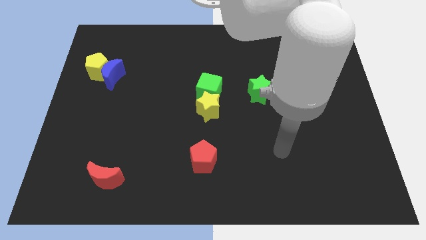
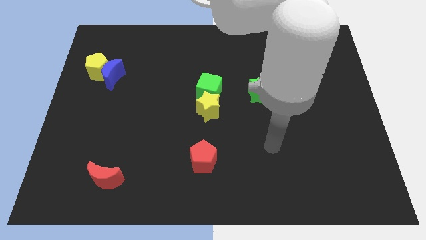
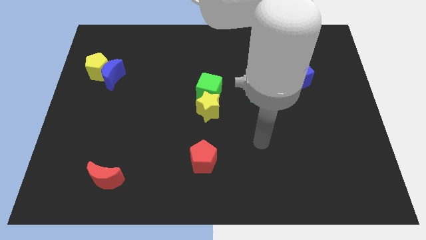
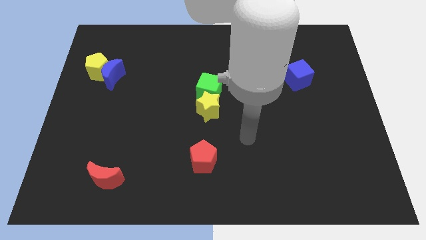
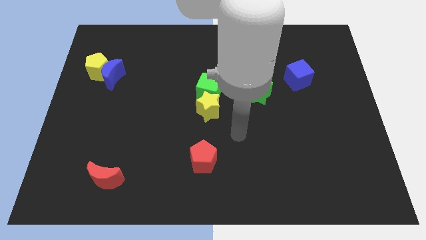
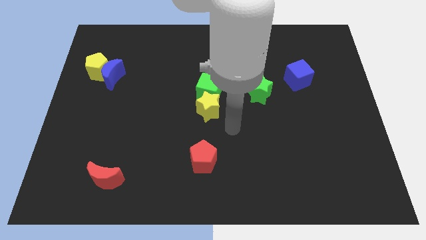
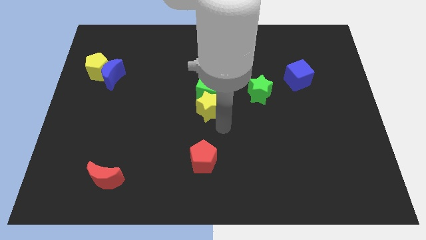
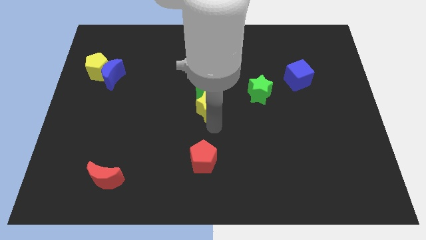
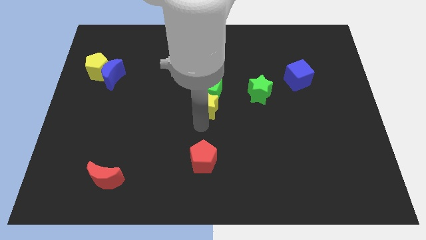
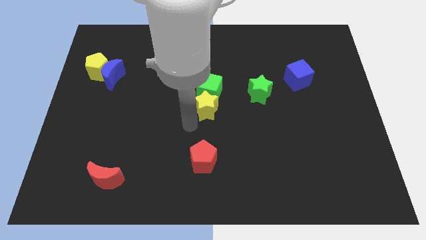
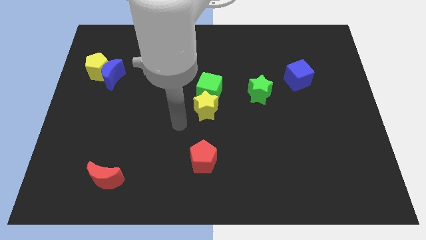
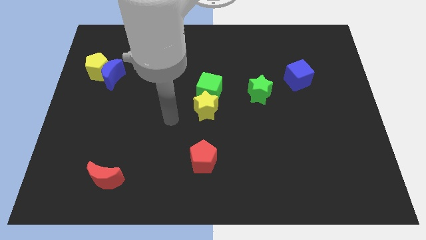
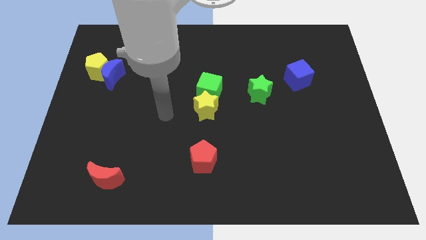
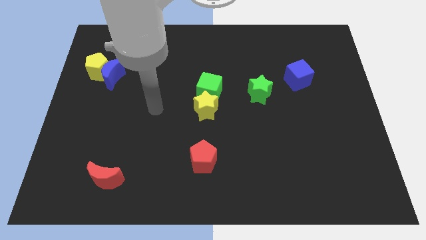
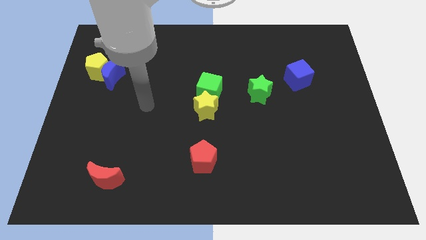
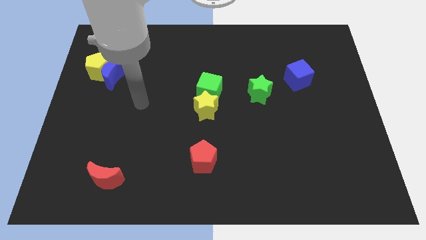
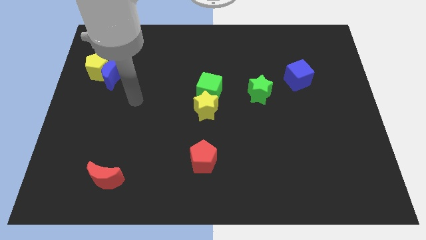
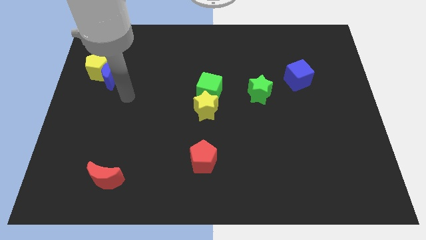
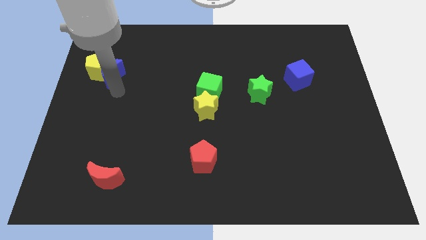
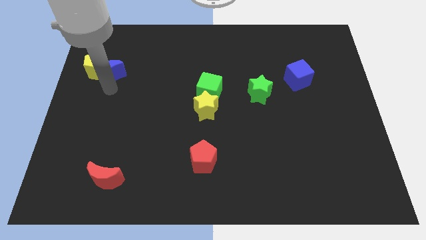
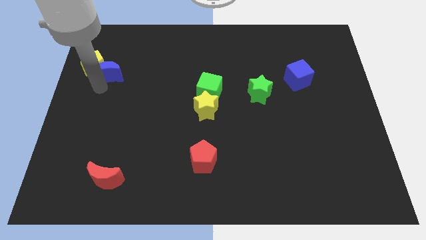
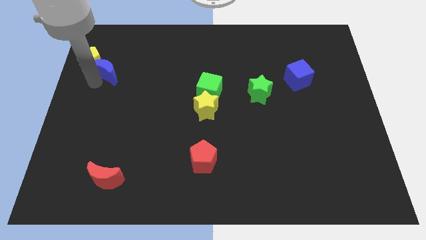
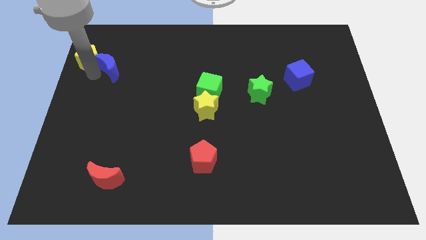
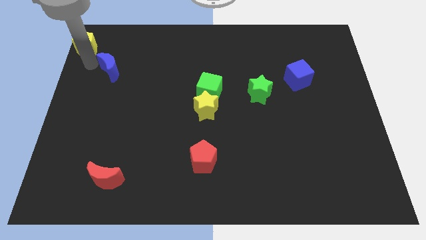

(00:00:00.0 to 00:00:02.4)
pull the blue moon apart from the yellow pentagon

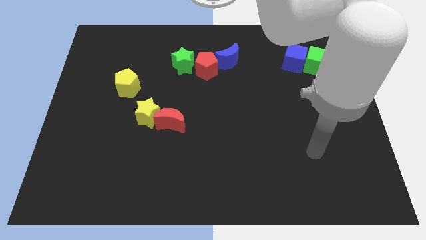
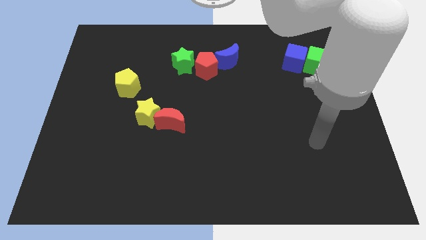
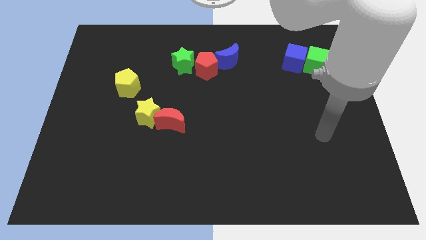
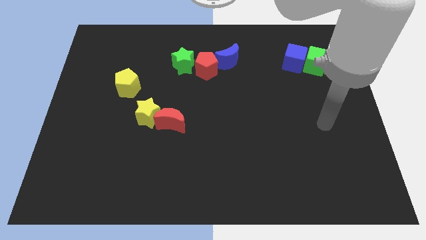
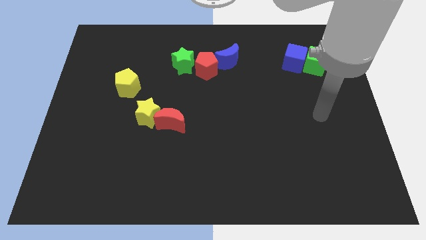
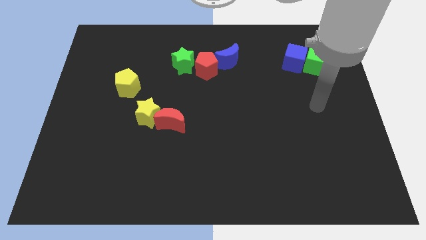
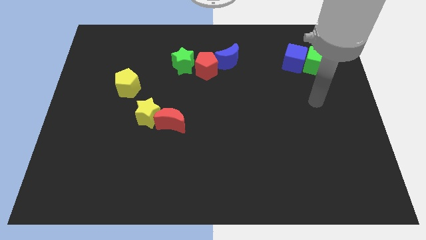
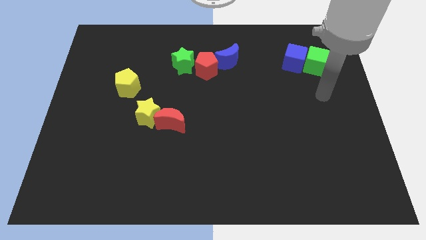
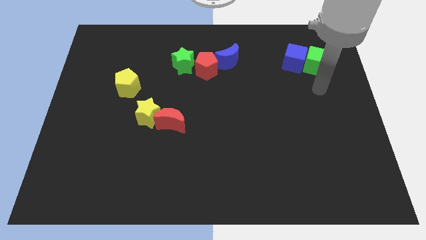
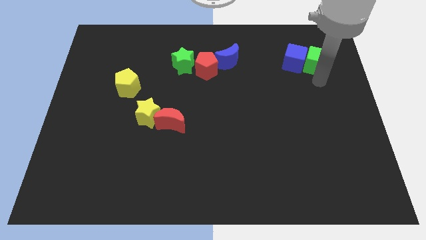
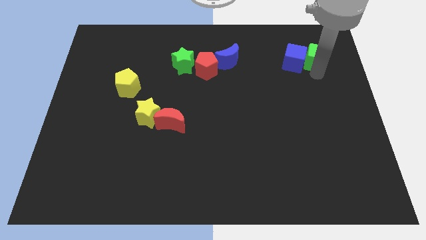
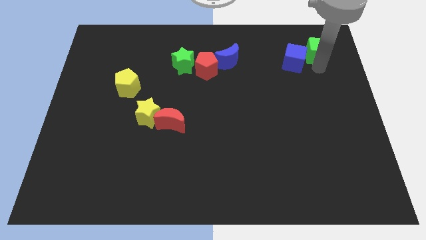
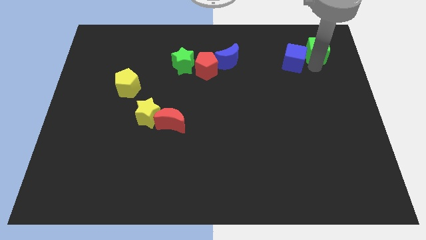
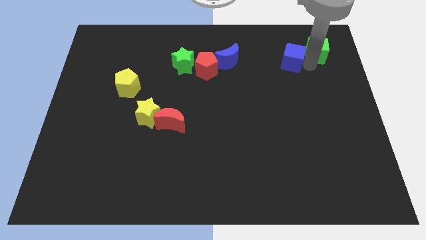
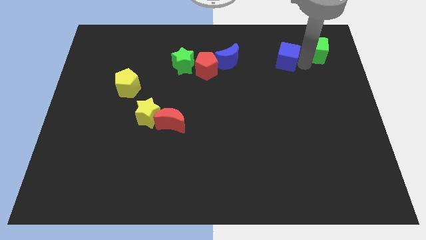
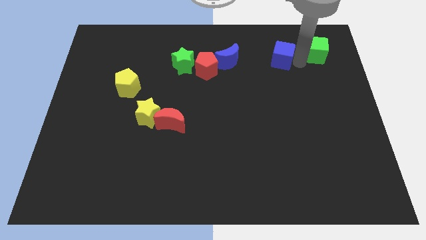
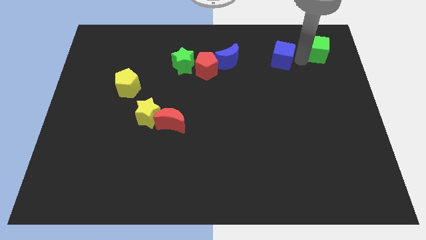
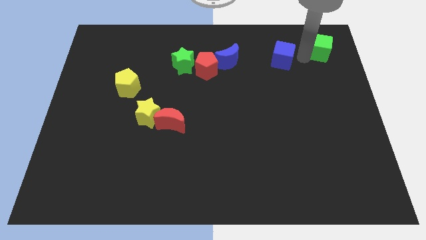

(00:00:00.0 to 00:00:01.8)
move the blue cube away from the green cube

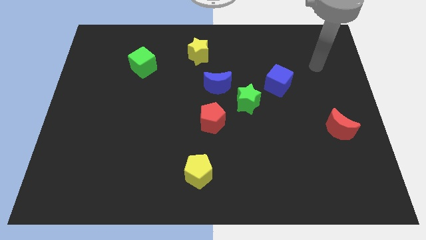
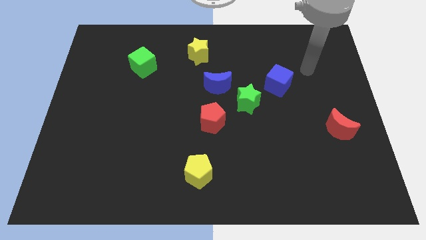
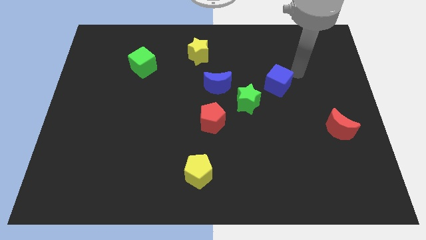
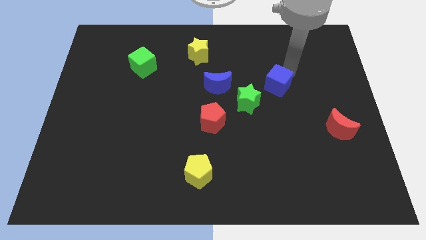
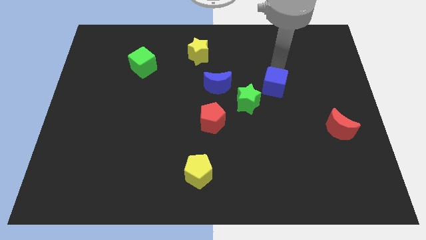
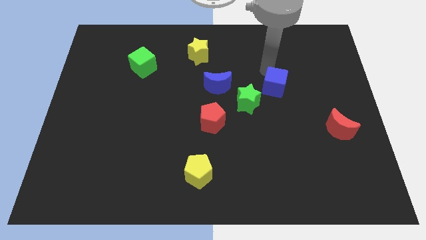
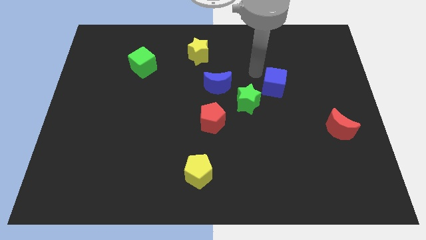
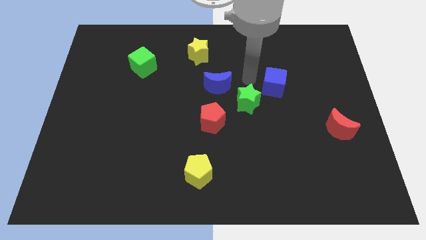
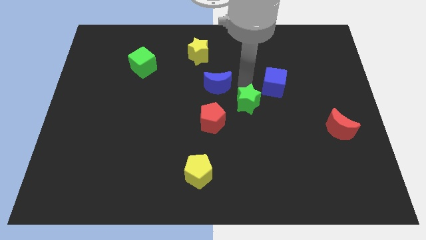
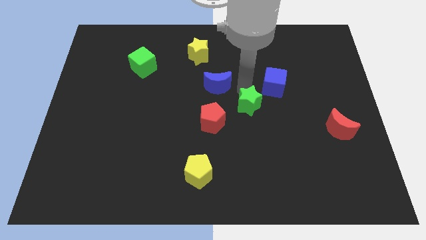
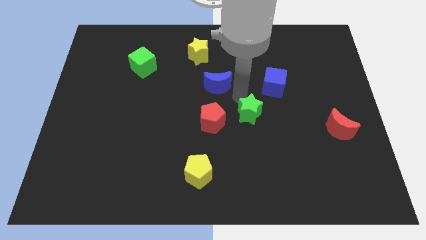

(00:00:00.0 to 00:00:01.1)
pull the blue moon apart from the green star

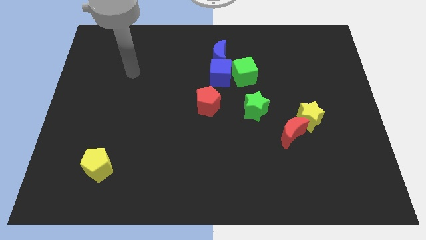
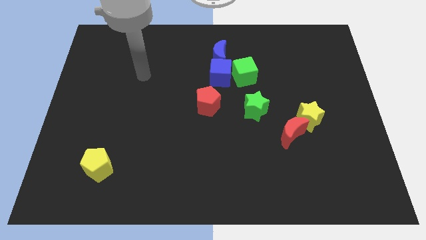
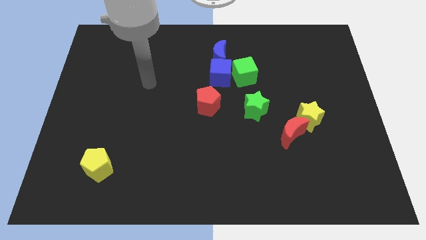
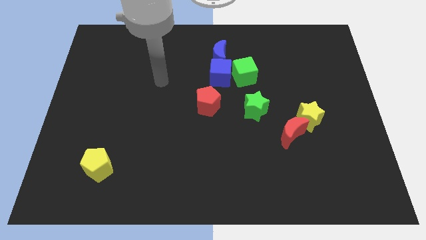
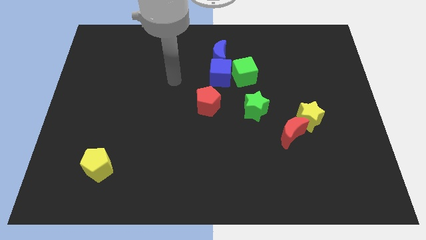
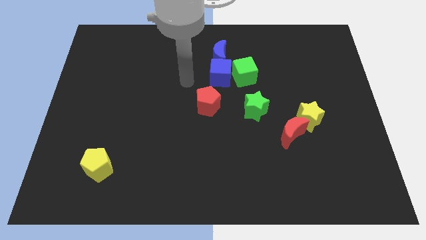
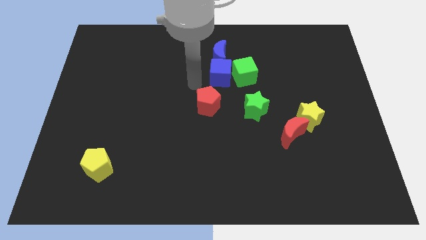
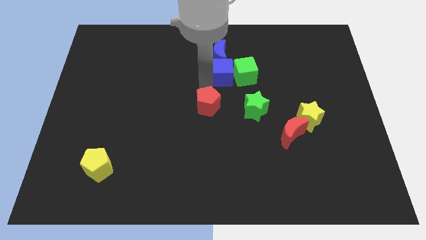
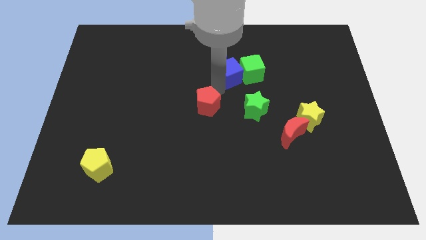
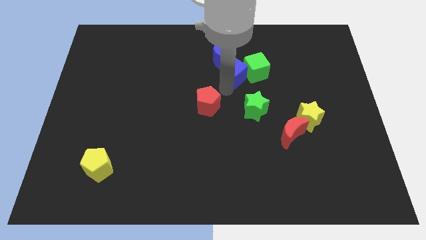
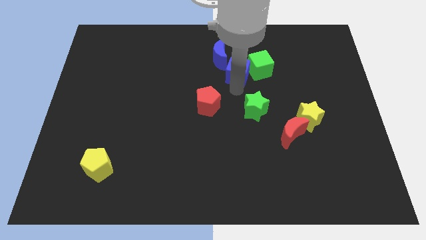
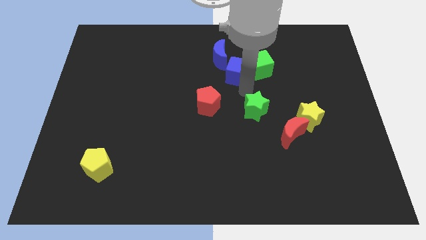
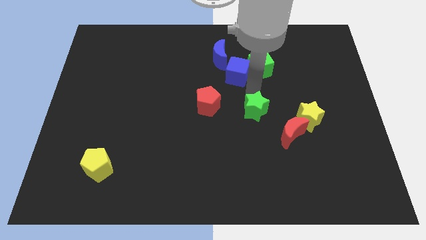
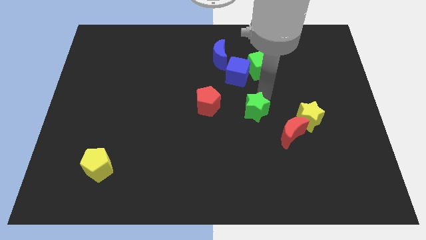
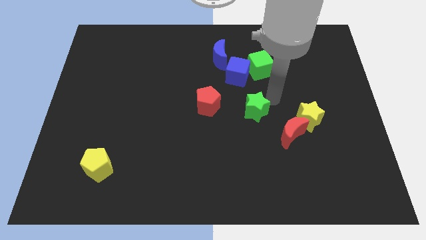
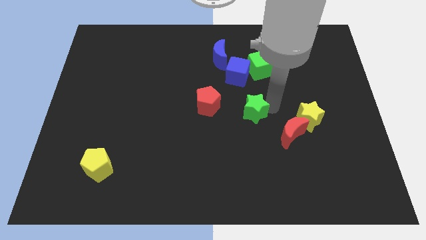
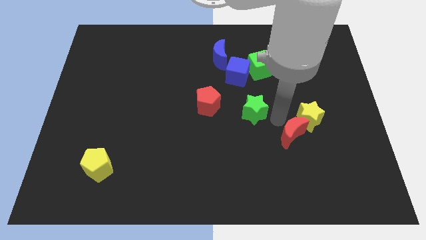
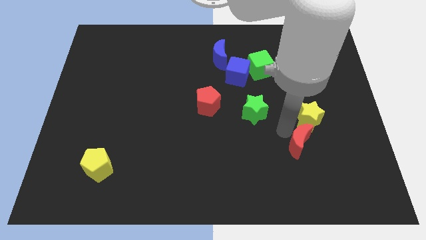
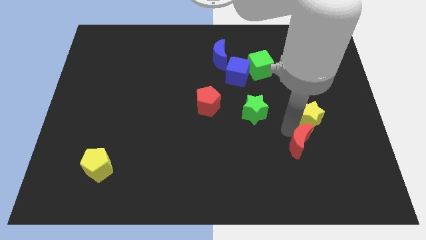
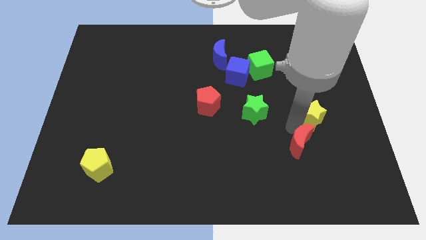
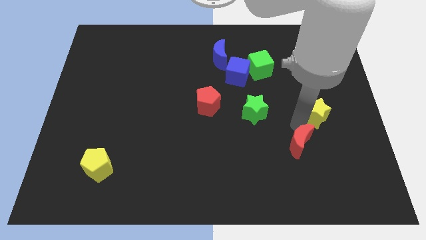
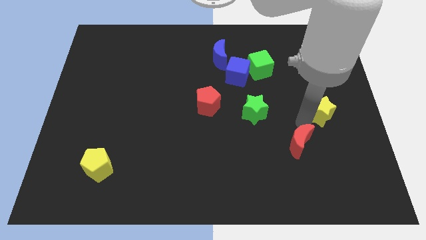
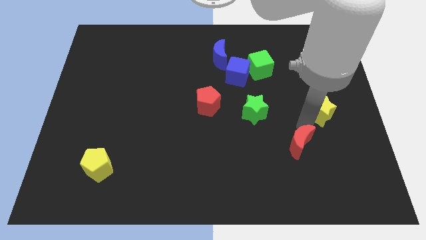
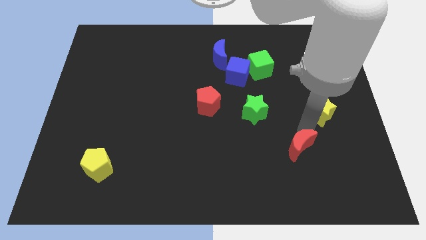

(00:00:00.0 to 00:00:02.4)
pull the yellow star apart from the red moon

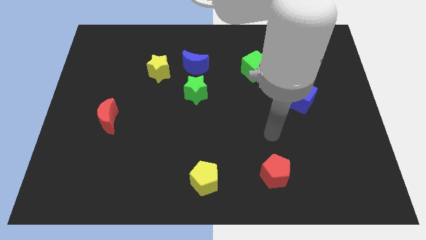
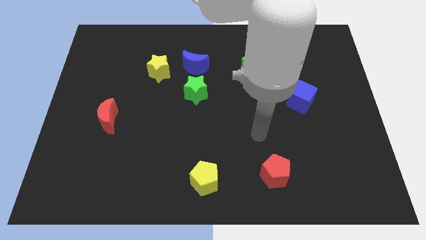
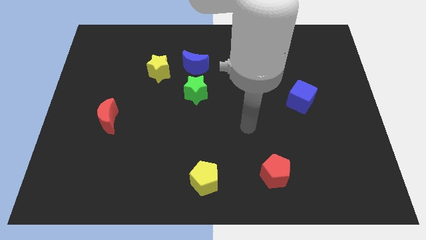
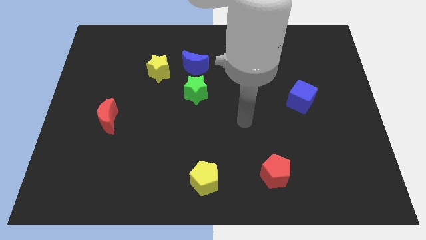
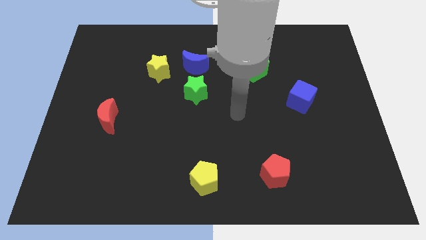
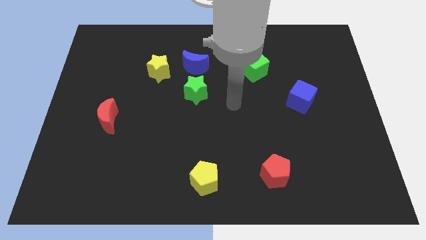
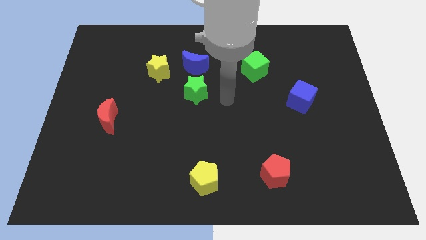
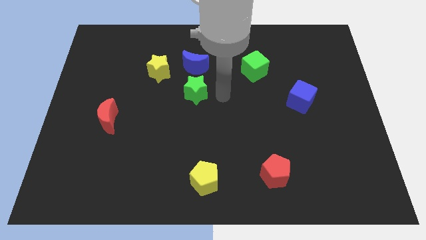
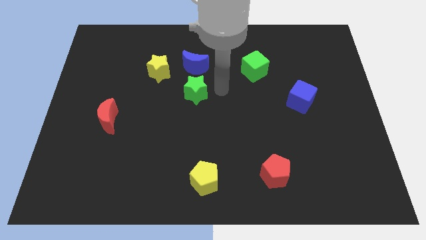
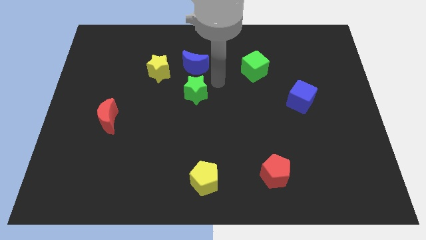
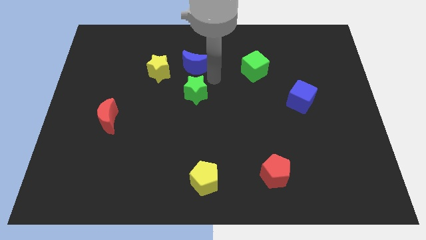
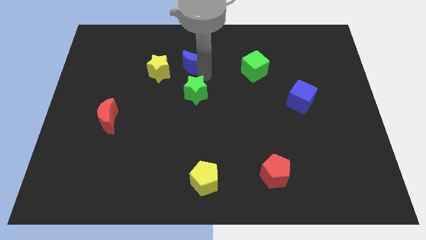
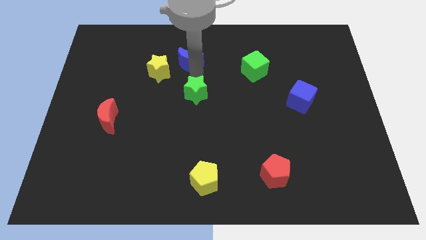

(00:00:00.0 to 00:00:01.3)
separate the green star from the blue moon

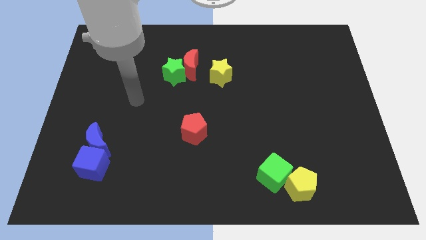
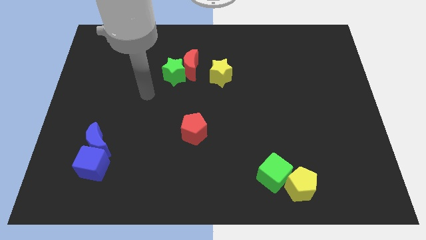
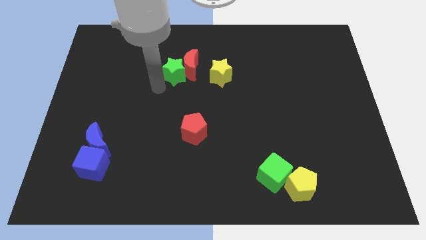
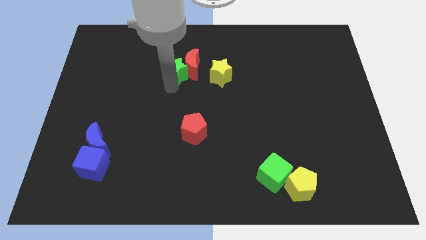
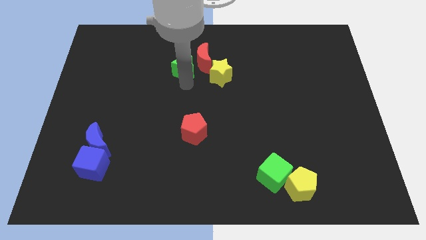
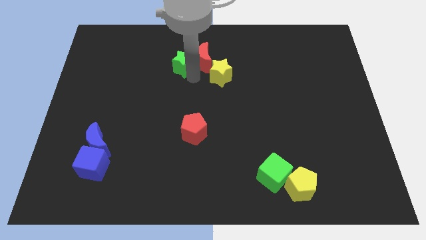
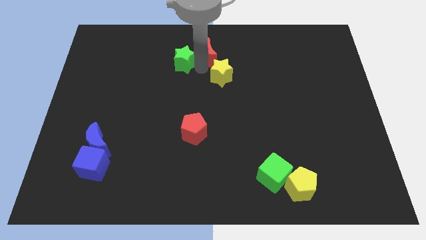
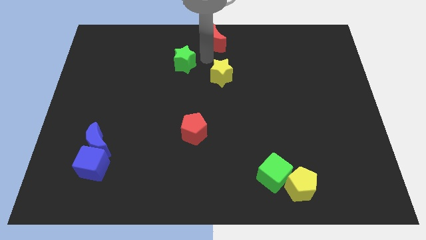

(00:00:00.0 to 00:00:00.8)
separate the green star from the red moon
